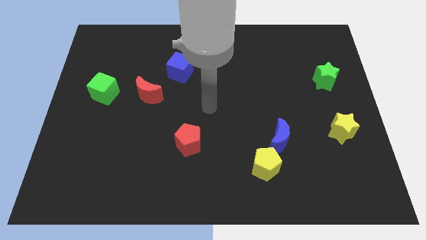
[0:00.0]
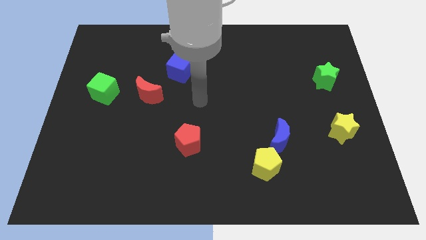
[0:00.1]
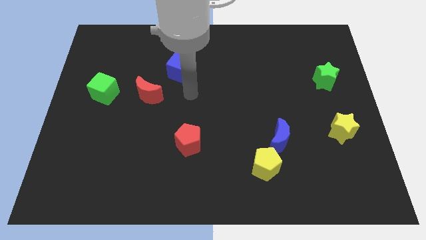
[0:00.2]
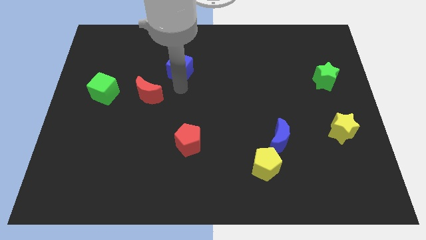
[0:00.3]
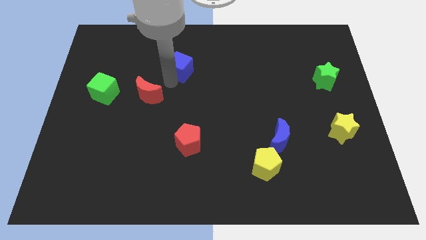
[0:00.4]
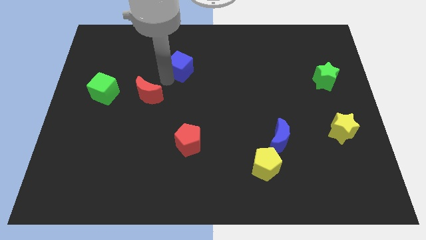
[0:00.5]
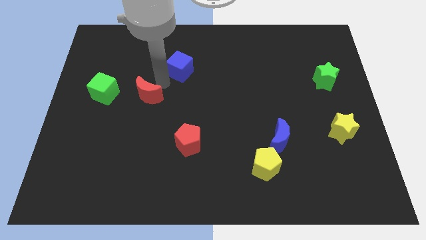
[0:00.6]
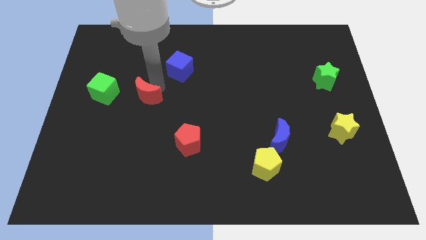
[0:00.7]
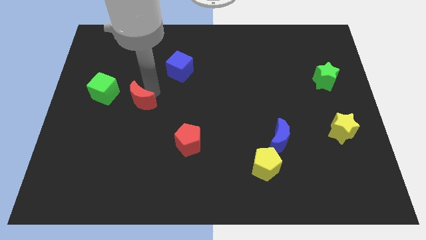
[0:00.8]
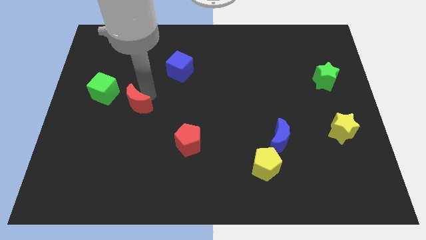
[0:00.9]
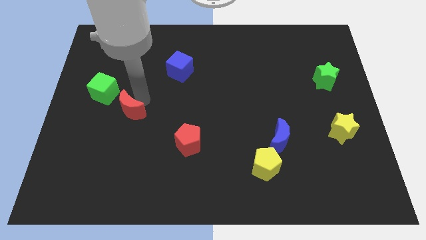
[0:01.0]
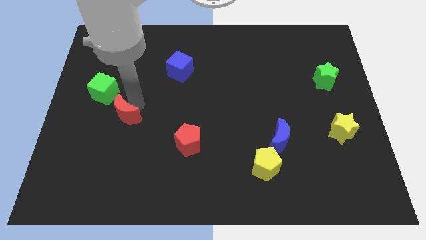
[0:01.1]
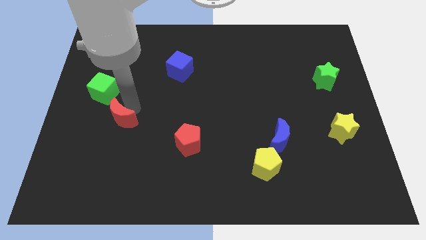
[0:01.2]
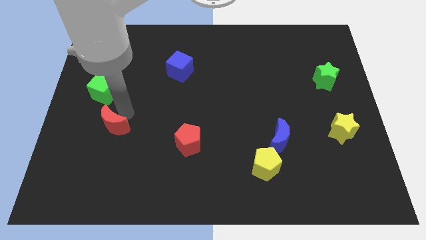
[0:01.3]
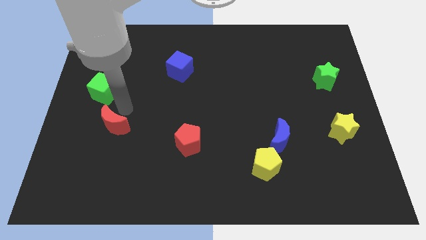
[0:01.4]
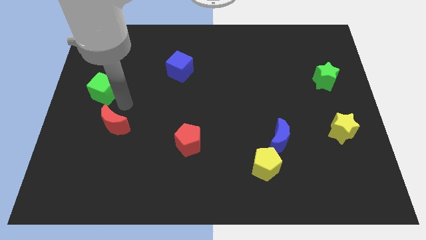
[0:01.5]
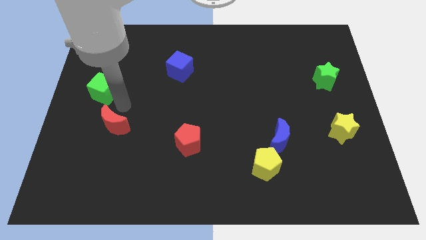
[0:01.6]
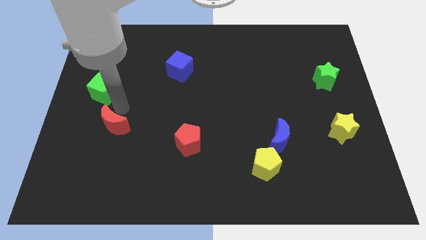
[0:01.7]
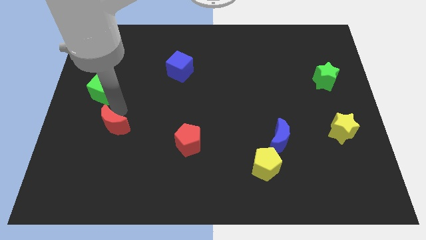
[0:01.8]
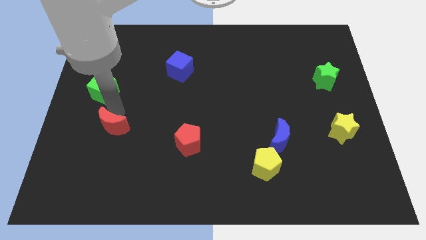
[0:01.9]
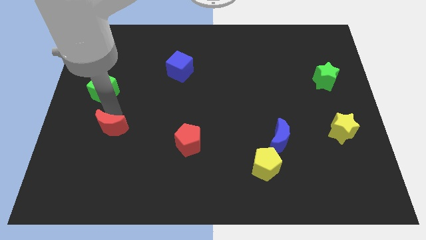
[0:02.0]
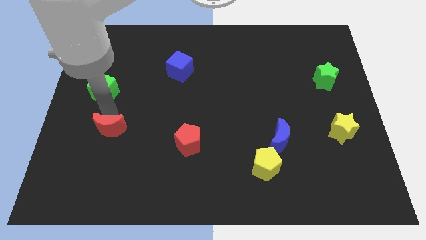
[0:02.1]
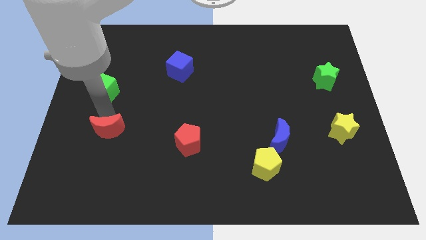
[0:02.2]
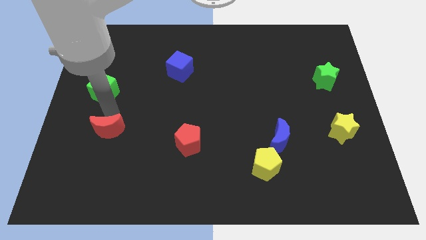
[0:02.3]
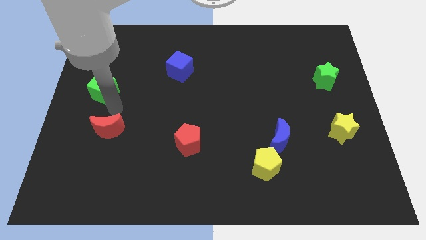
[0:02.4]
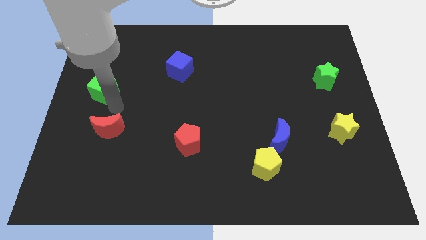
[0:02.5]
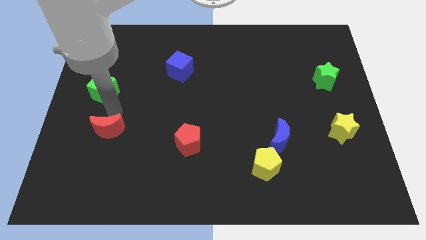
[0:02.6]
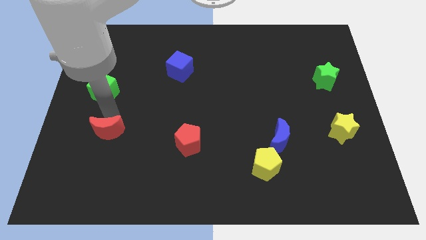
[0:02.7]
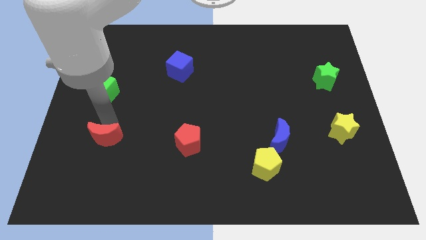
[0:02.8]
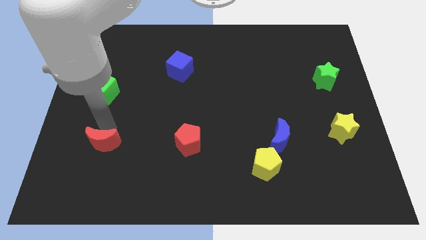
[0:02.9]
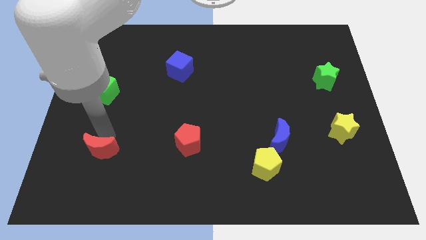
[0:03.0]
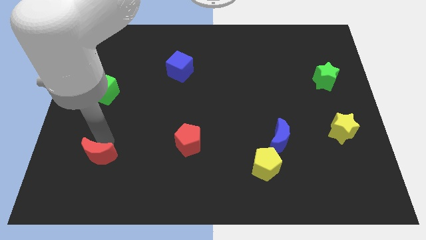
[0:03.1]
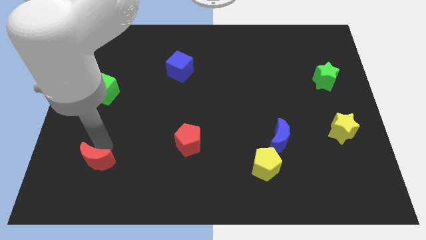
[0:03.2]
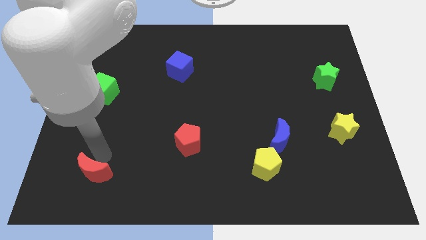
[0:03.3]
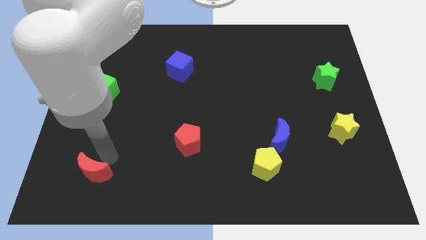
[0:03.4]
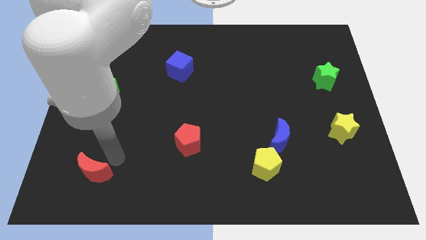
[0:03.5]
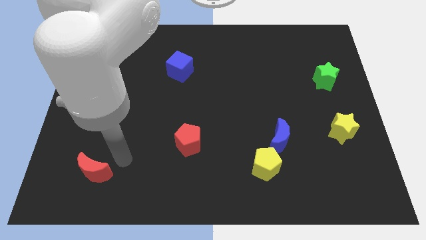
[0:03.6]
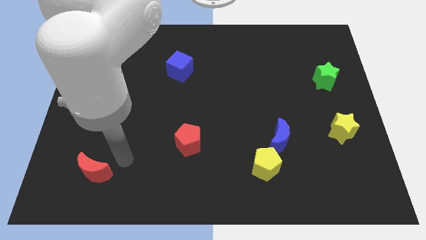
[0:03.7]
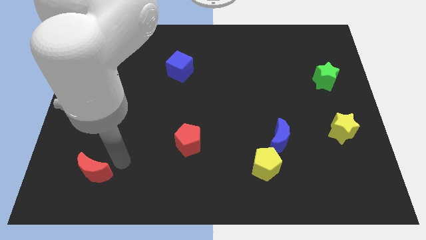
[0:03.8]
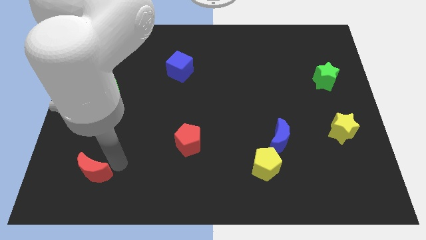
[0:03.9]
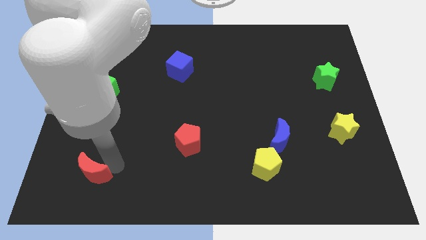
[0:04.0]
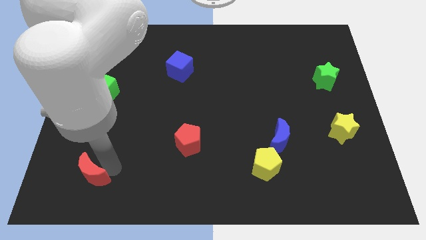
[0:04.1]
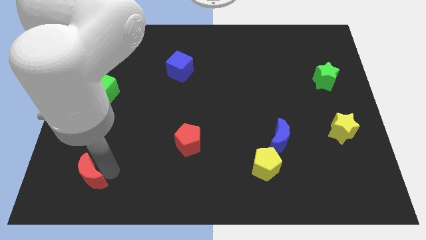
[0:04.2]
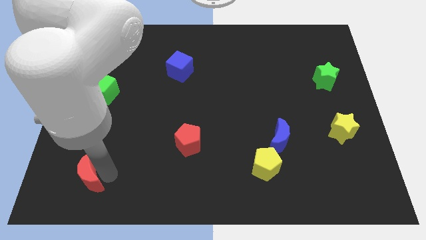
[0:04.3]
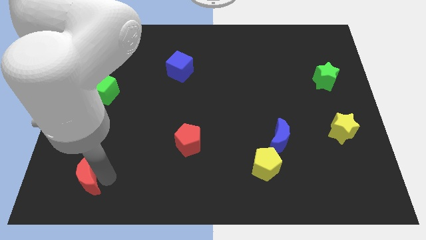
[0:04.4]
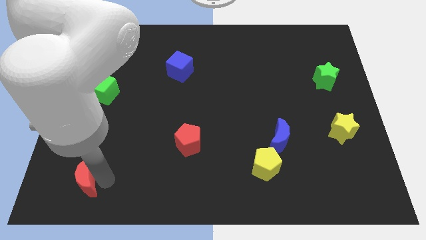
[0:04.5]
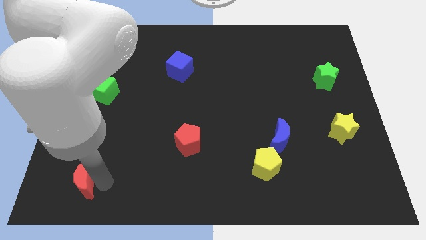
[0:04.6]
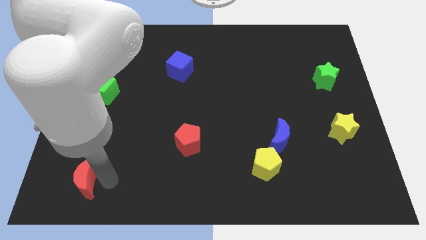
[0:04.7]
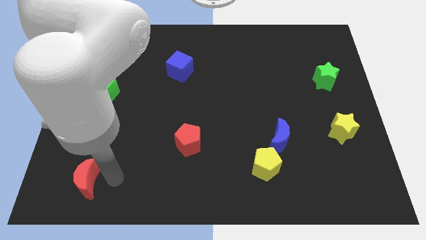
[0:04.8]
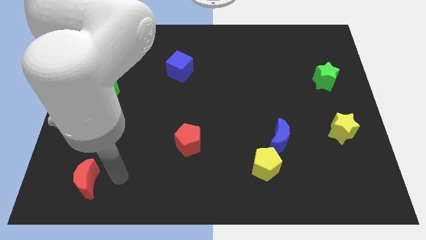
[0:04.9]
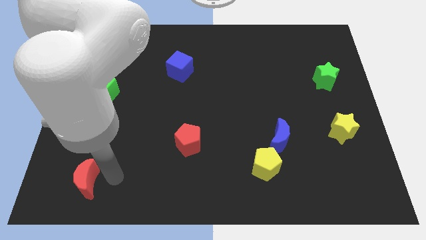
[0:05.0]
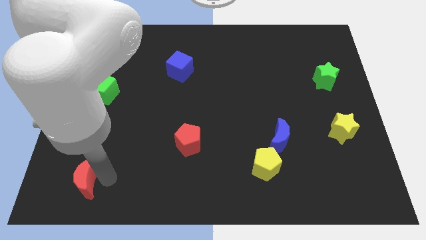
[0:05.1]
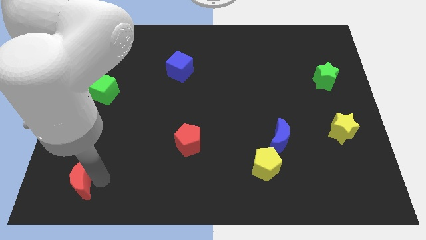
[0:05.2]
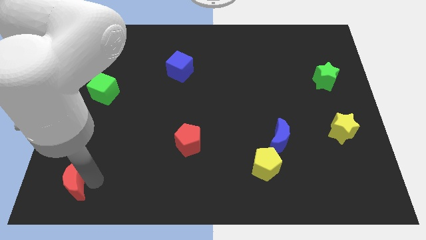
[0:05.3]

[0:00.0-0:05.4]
put the red moon to the bottom left corner

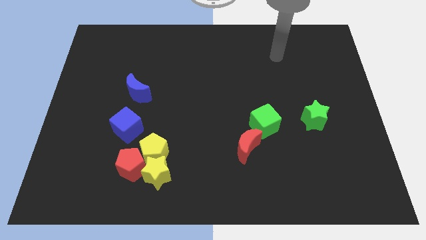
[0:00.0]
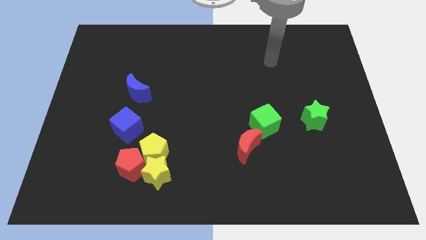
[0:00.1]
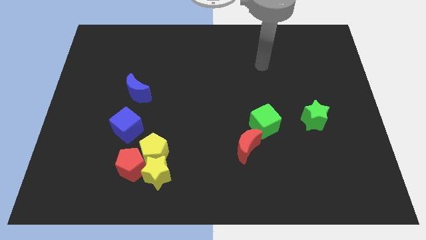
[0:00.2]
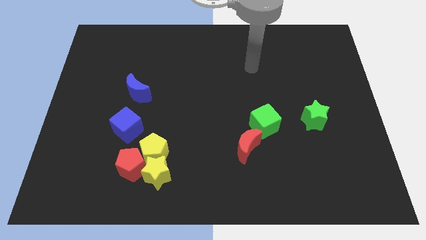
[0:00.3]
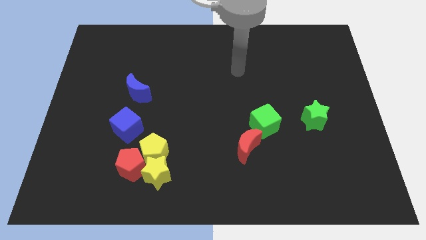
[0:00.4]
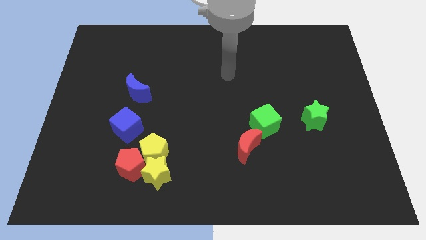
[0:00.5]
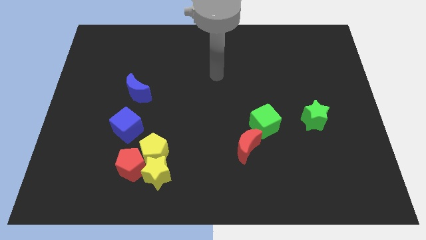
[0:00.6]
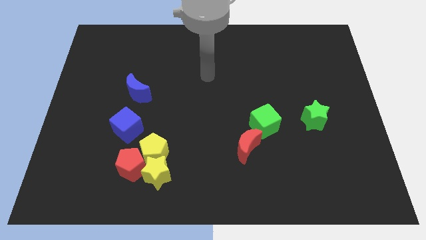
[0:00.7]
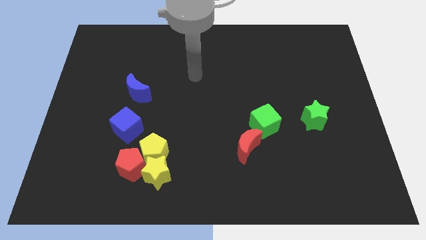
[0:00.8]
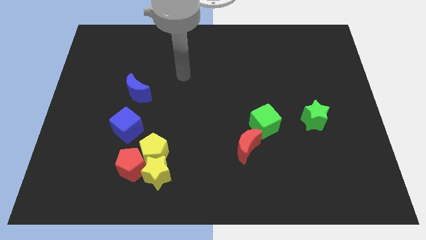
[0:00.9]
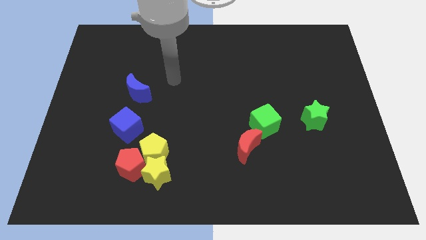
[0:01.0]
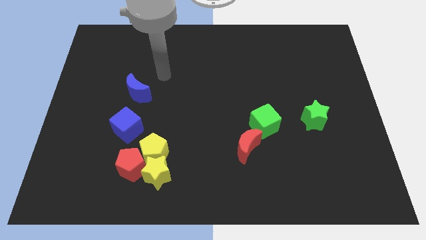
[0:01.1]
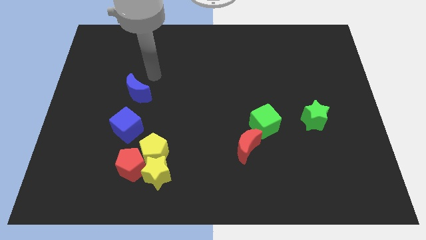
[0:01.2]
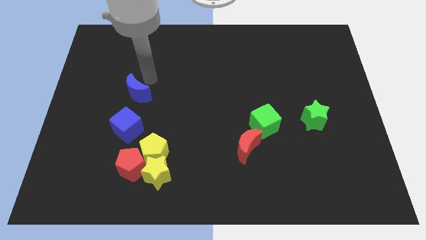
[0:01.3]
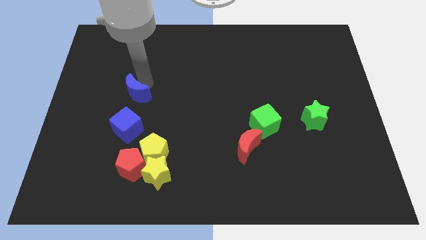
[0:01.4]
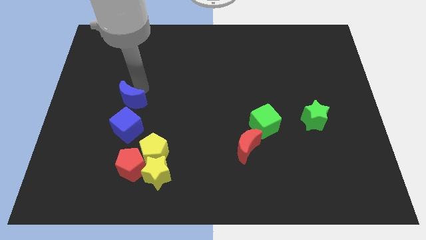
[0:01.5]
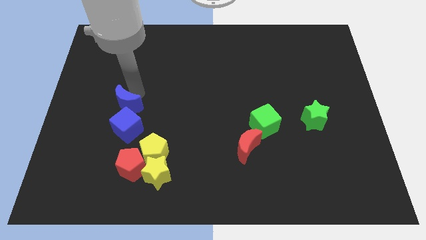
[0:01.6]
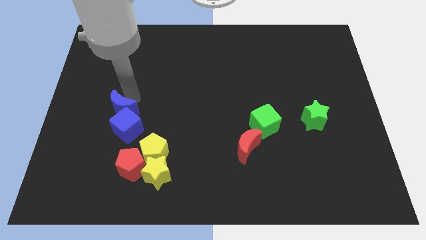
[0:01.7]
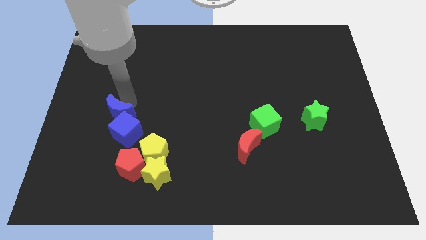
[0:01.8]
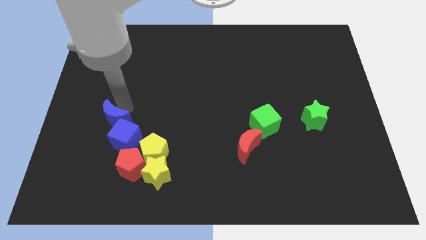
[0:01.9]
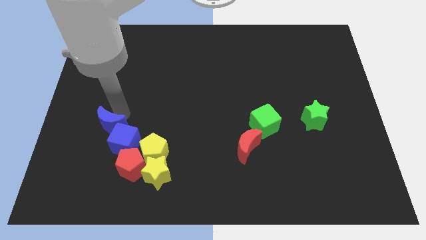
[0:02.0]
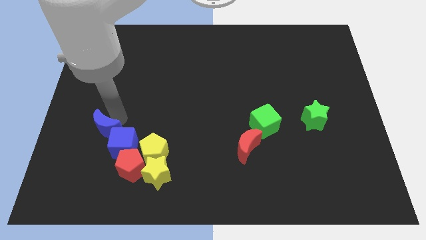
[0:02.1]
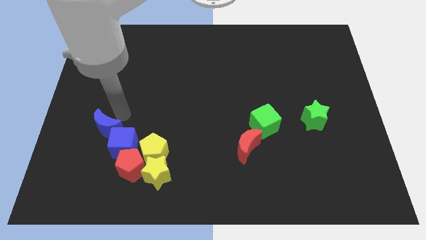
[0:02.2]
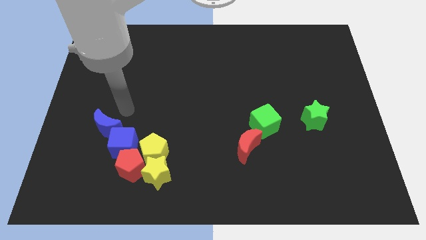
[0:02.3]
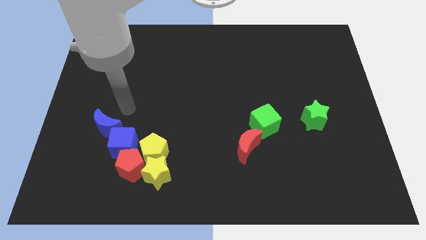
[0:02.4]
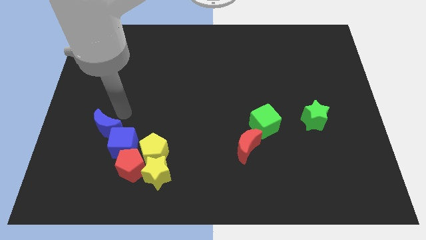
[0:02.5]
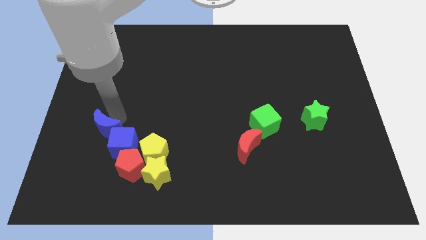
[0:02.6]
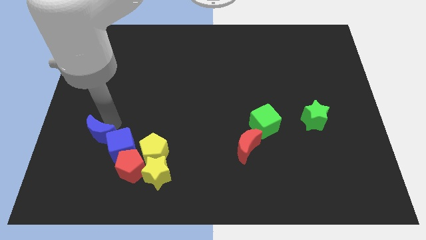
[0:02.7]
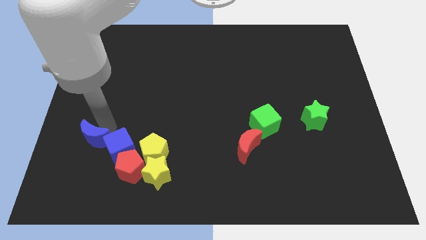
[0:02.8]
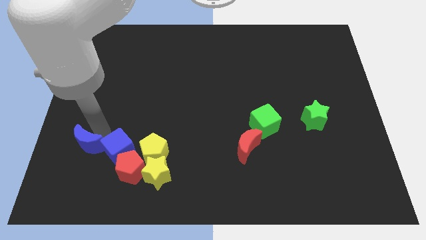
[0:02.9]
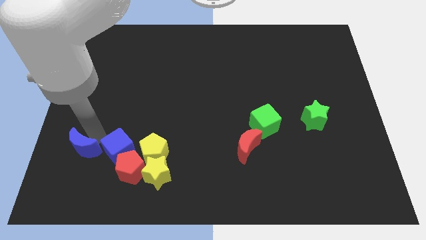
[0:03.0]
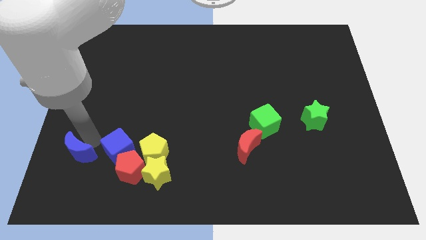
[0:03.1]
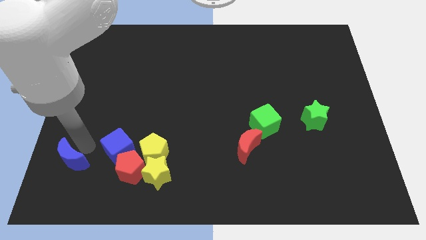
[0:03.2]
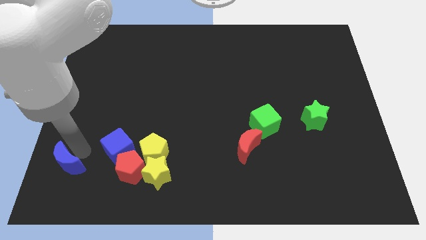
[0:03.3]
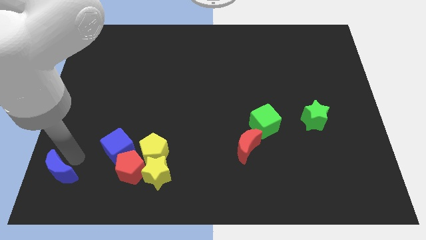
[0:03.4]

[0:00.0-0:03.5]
put the blue moon to the bottom left corner
